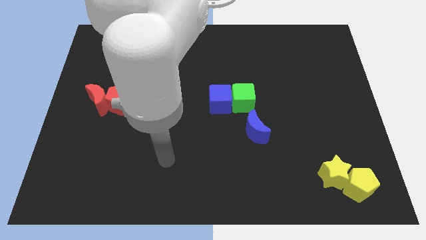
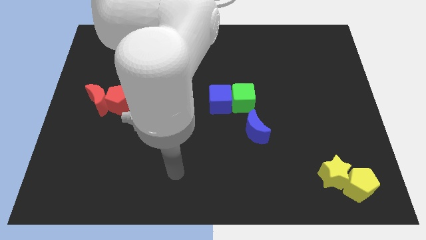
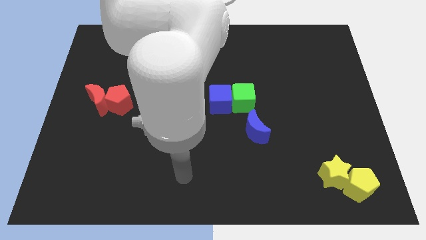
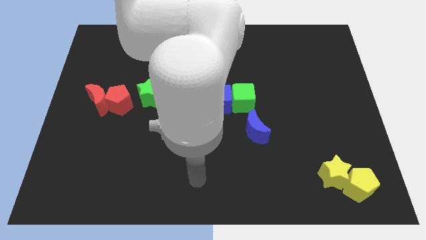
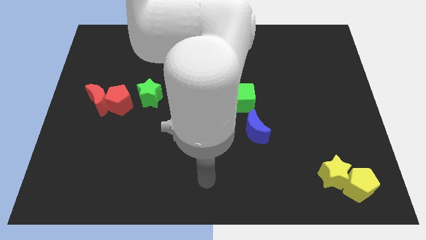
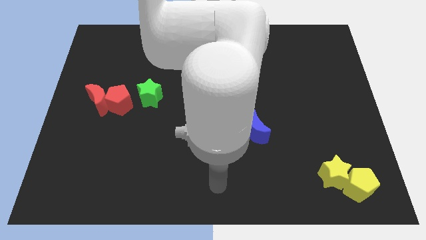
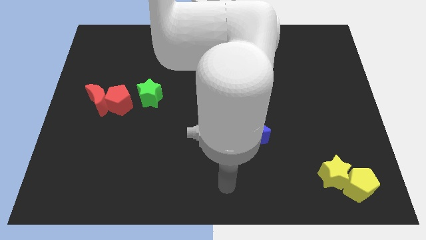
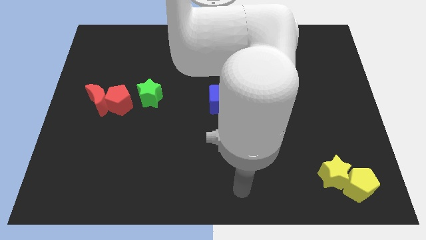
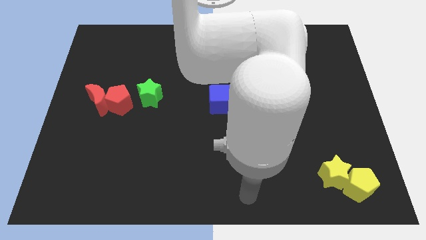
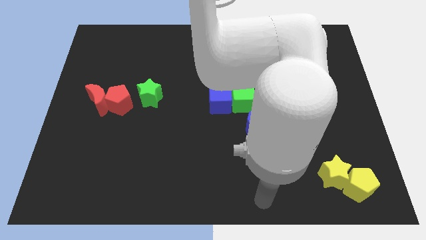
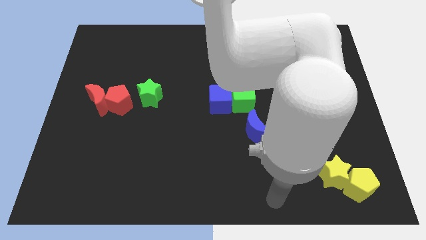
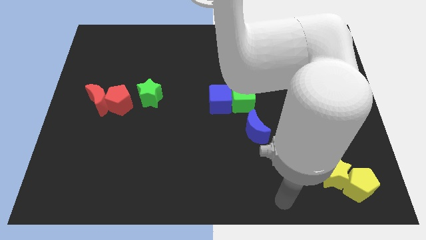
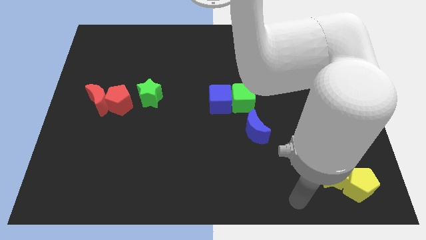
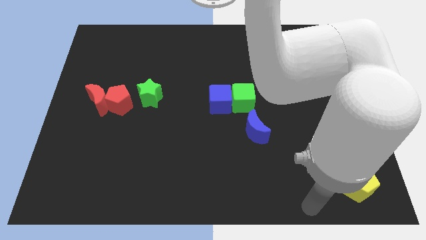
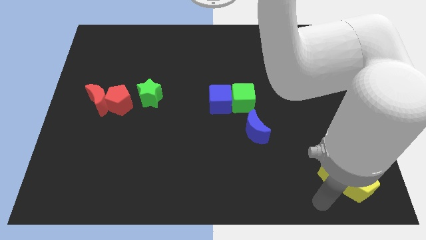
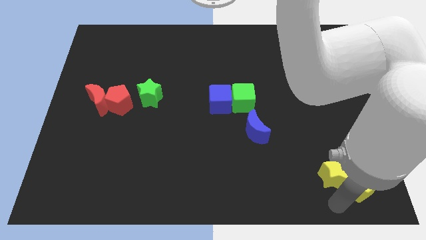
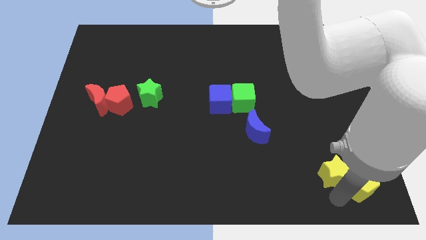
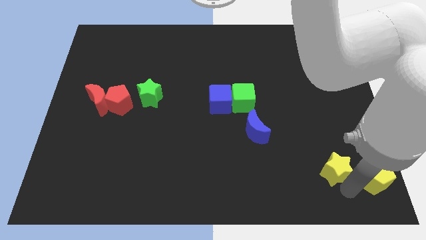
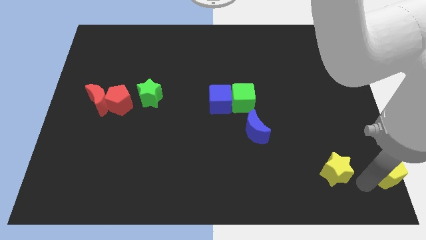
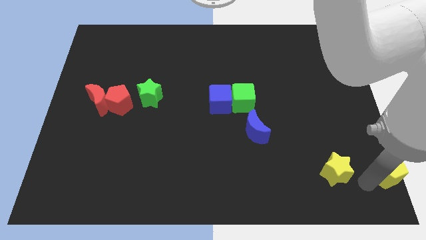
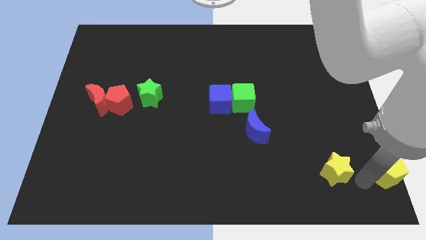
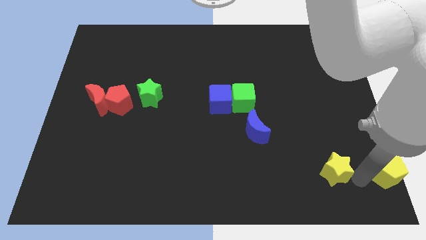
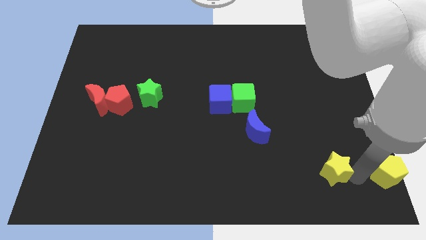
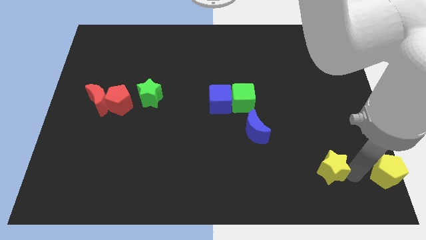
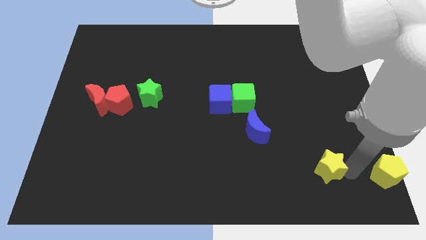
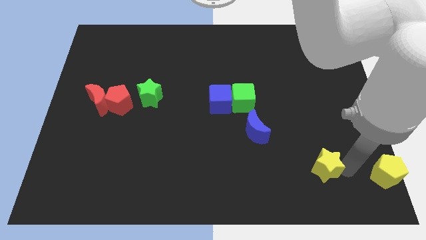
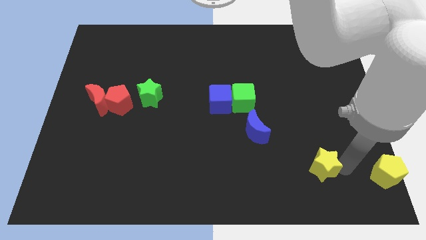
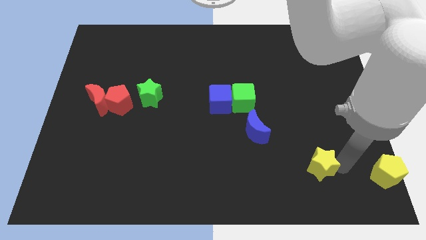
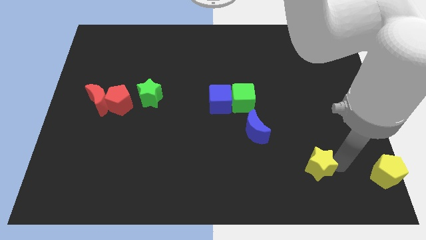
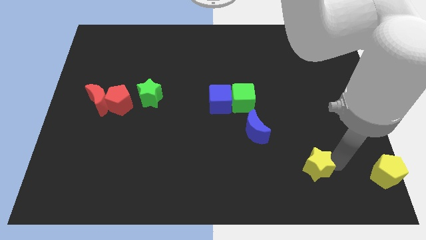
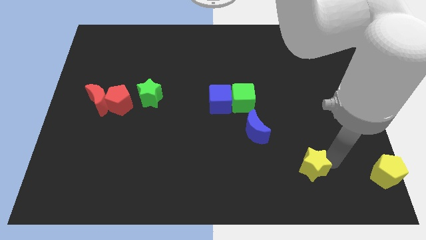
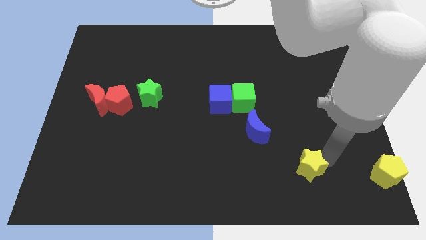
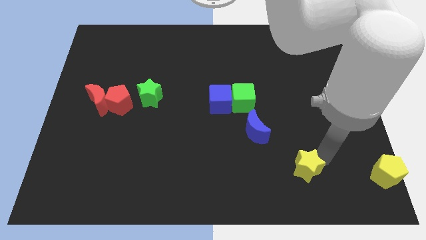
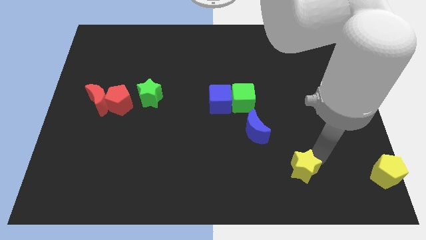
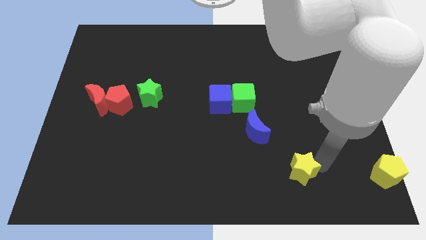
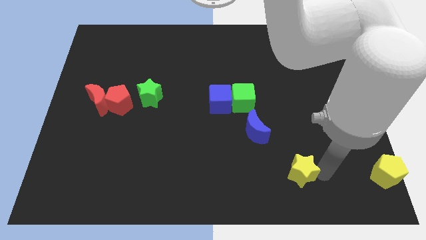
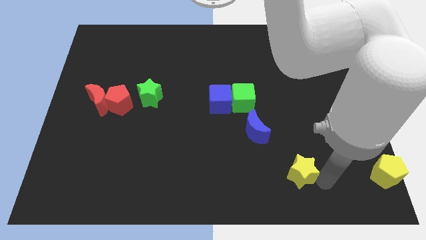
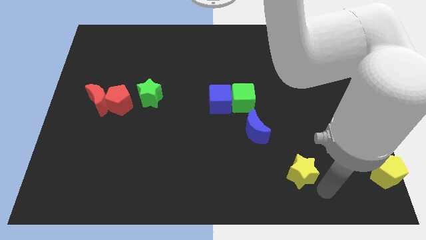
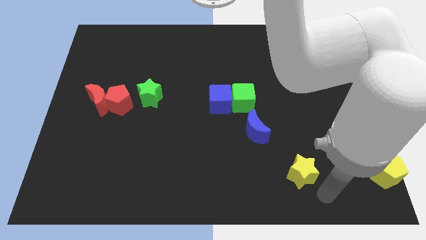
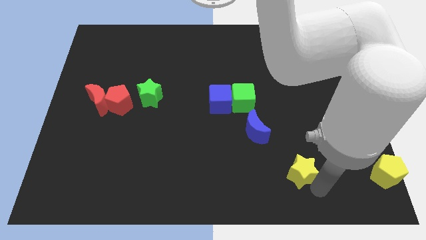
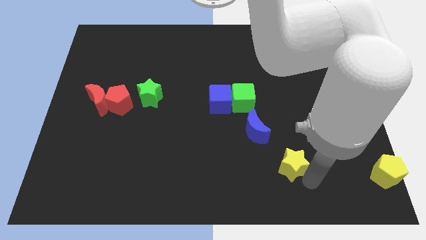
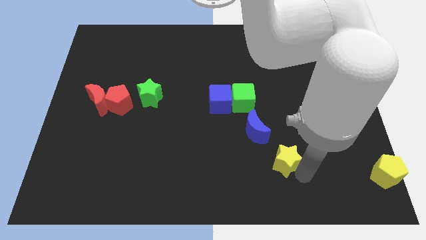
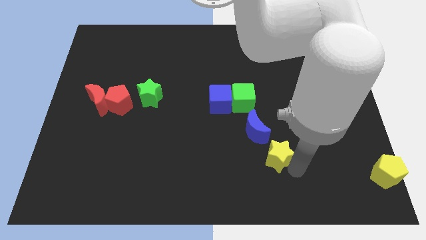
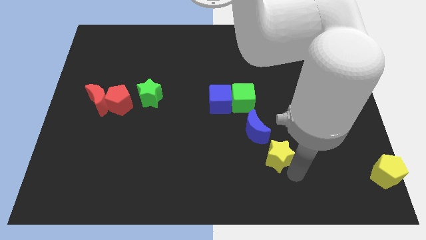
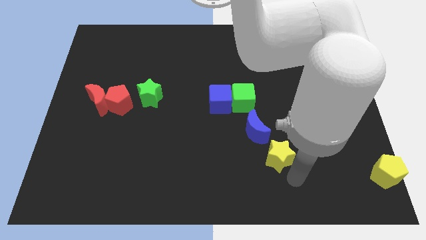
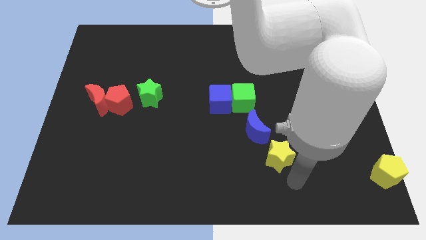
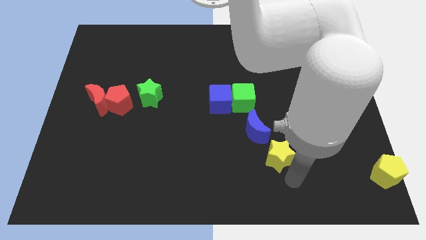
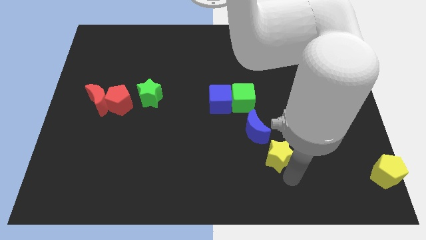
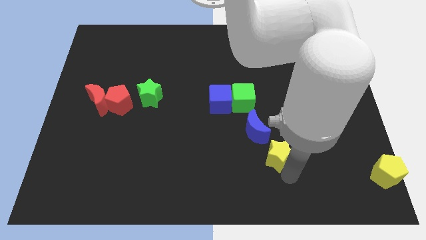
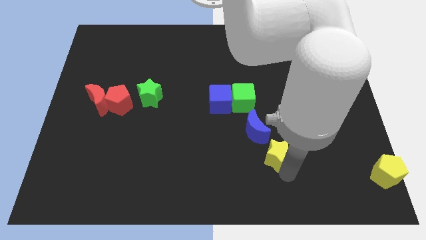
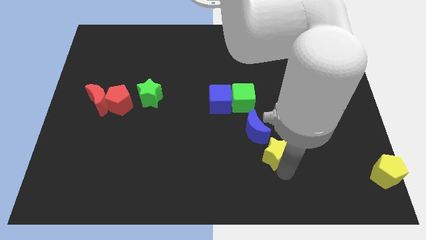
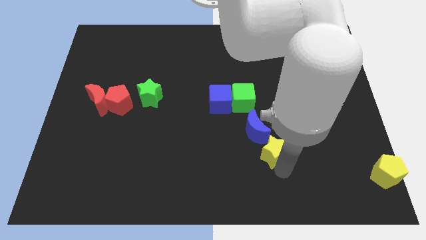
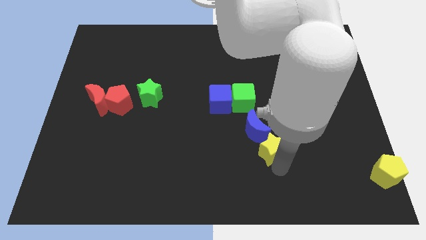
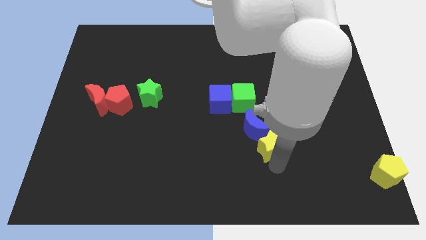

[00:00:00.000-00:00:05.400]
put the yellow star close to the blue moon

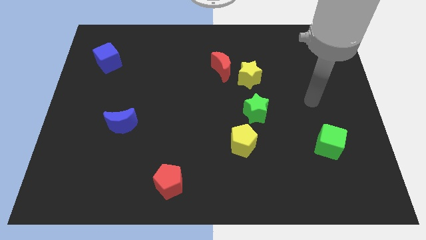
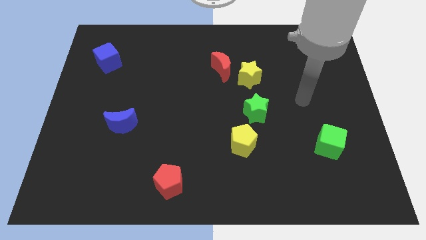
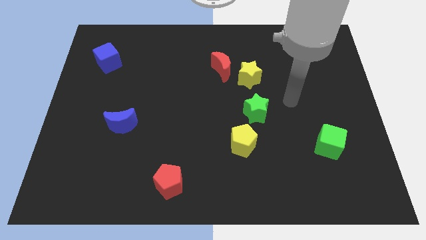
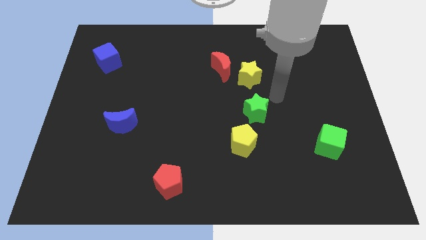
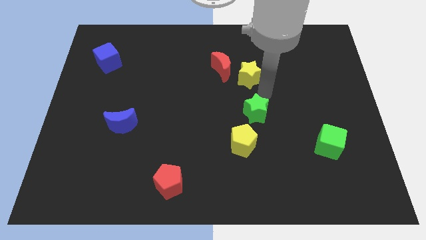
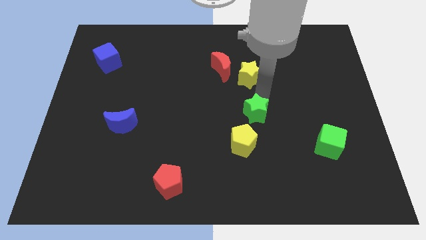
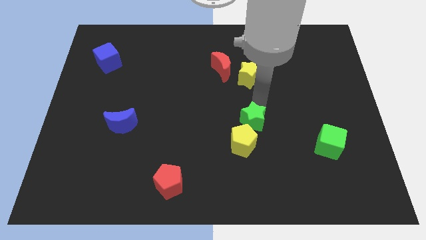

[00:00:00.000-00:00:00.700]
put the green star next to the yellow pentagon

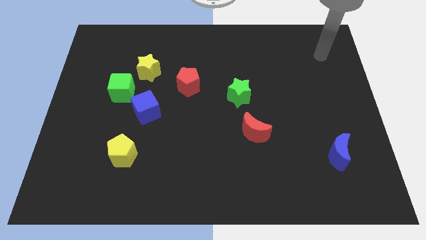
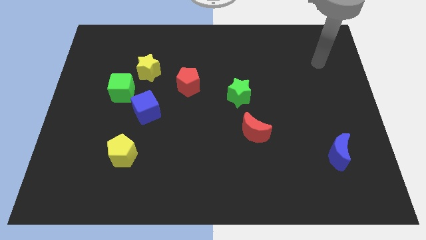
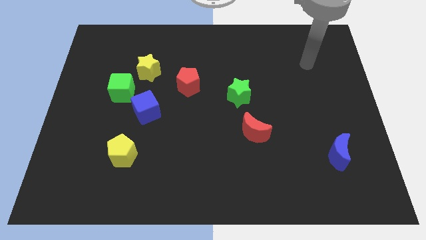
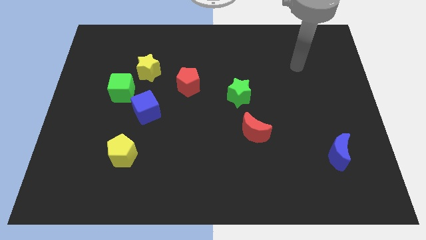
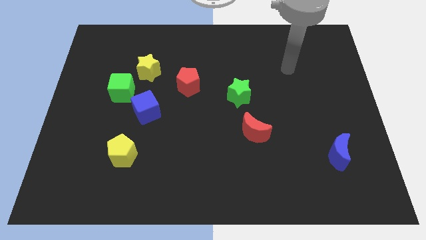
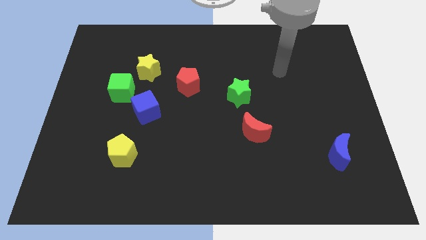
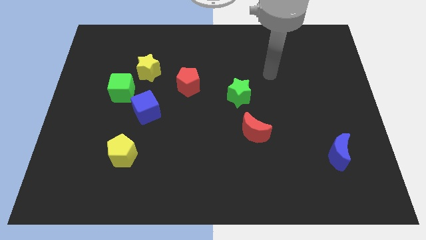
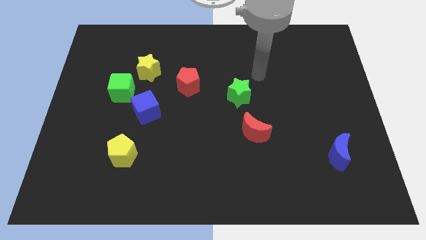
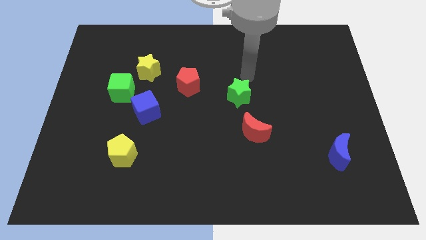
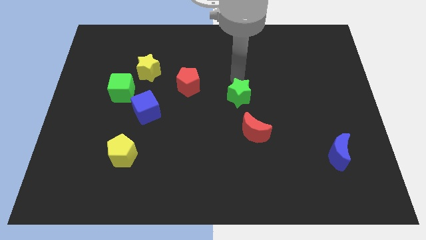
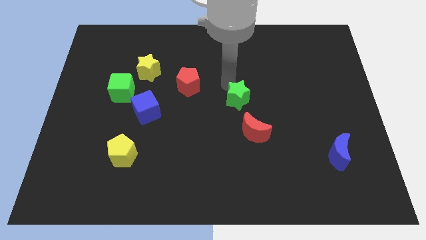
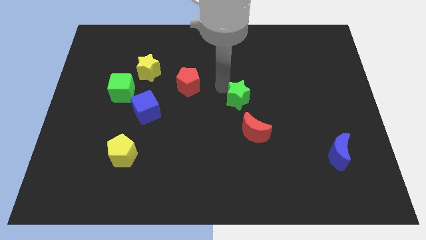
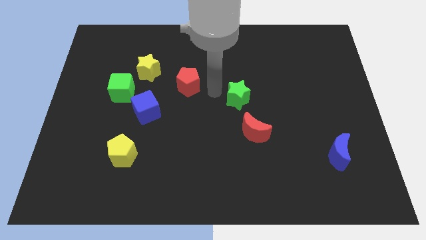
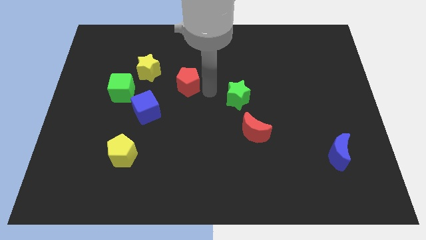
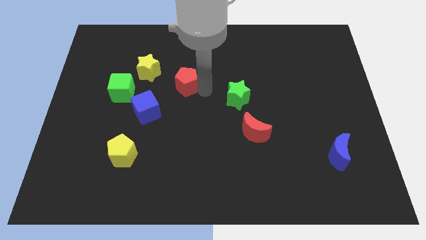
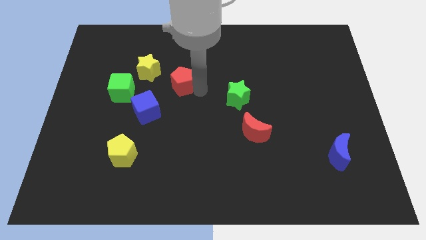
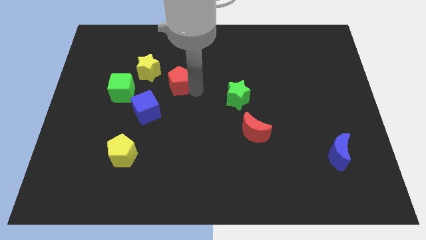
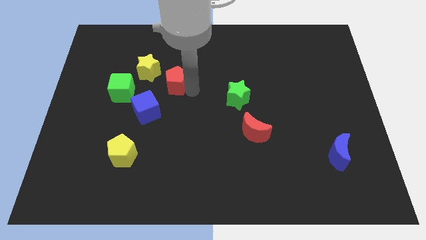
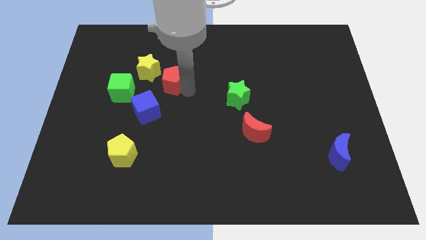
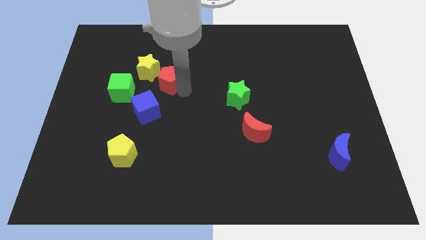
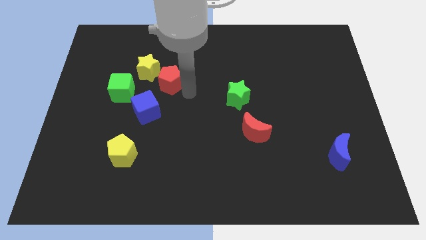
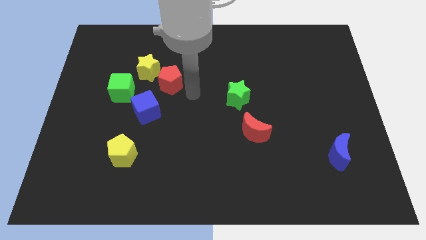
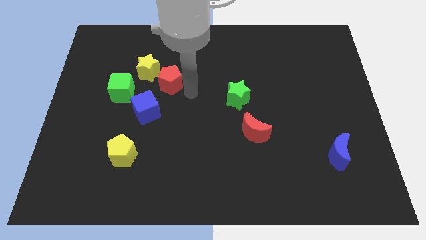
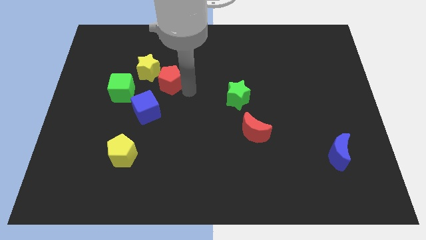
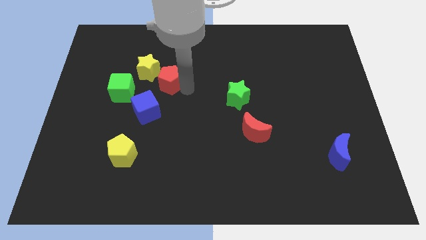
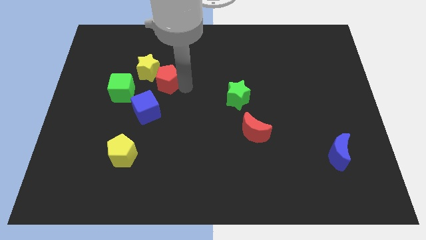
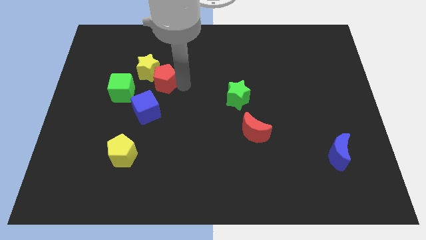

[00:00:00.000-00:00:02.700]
put the red pentagon to the yellow star
